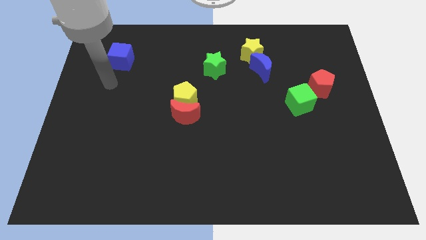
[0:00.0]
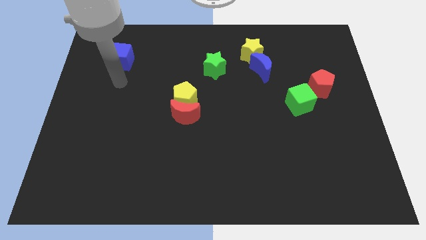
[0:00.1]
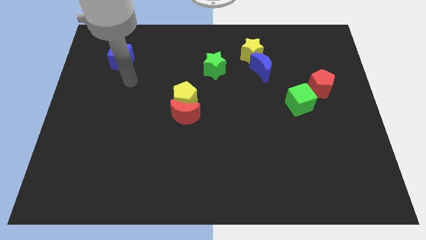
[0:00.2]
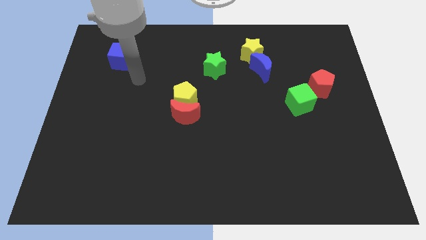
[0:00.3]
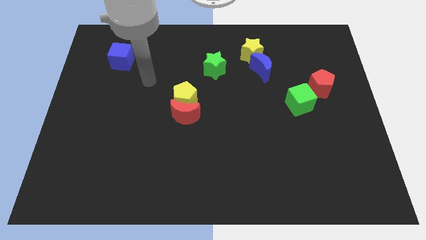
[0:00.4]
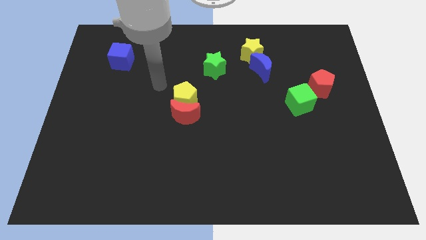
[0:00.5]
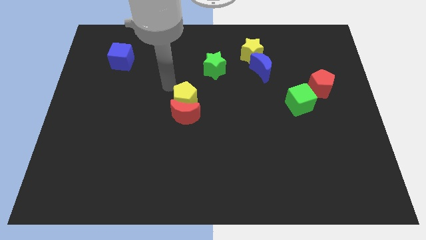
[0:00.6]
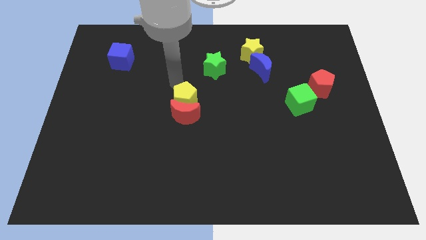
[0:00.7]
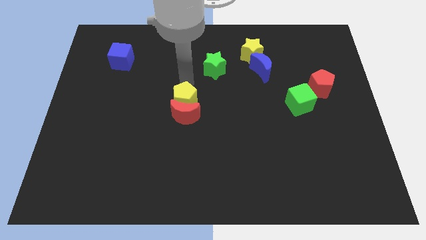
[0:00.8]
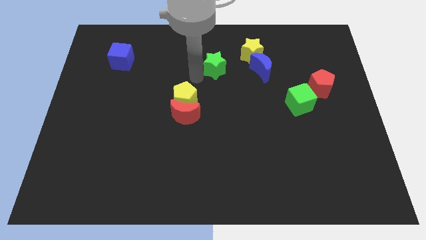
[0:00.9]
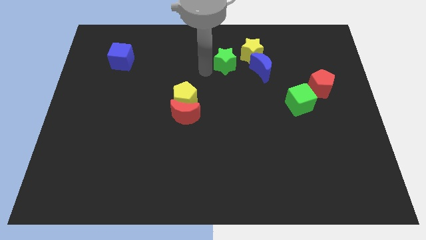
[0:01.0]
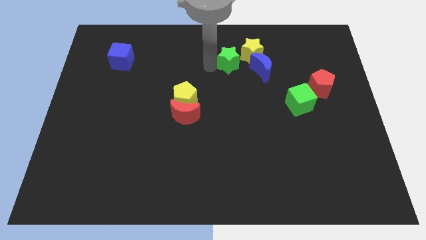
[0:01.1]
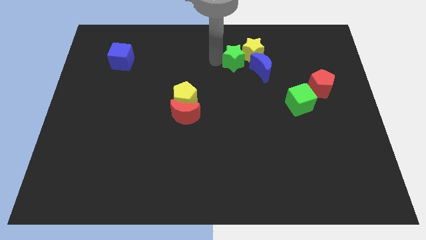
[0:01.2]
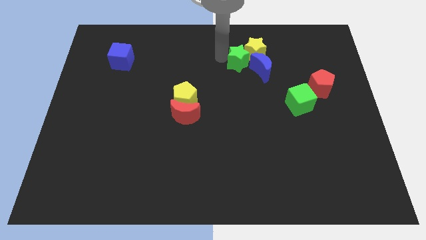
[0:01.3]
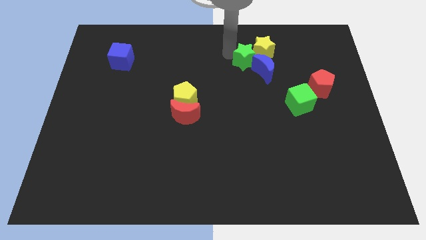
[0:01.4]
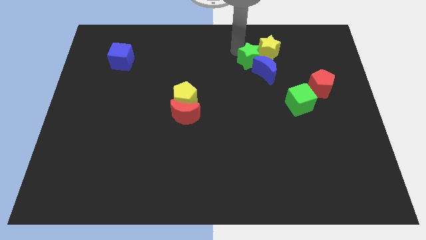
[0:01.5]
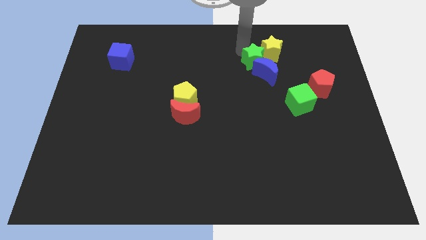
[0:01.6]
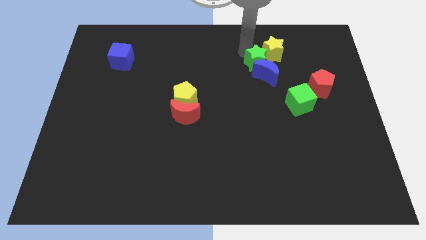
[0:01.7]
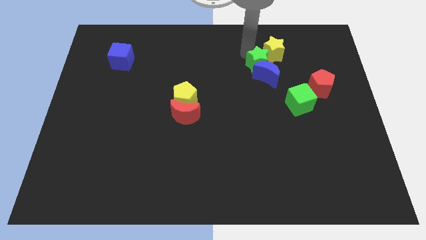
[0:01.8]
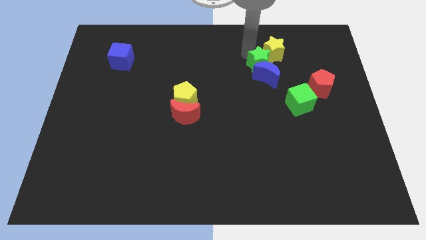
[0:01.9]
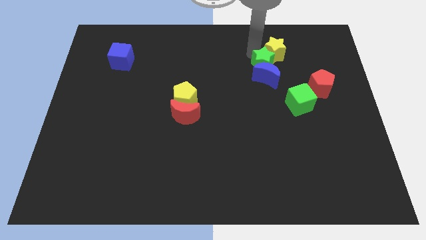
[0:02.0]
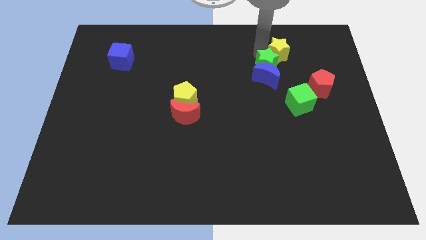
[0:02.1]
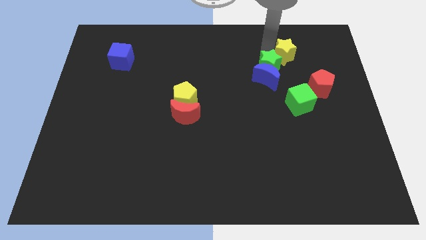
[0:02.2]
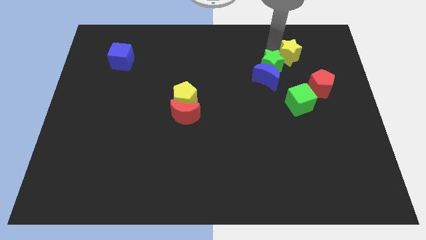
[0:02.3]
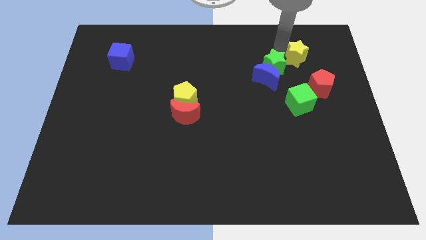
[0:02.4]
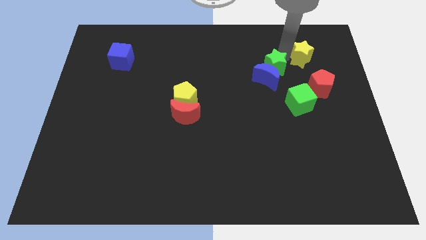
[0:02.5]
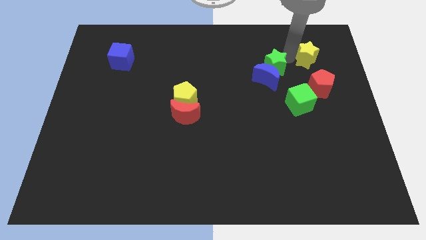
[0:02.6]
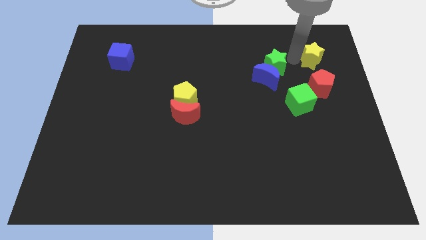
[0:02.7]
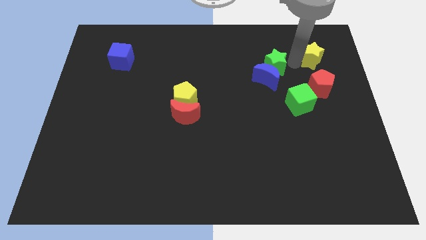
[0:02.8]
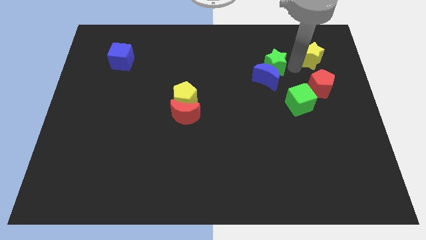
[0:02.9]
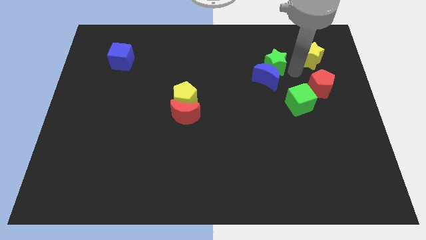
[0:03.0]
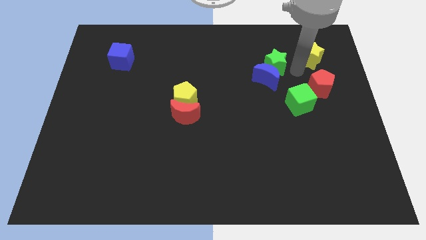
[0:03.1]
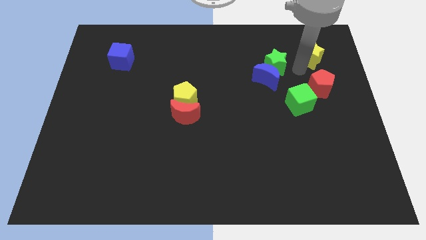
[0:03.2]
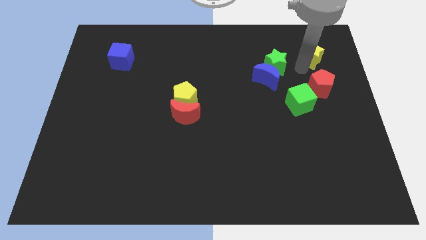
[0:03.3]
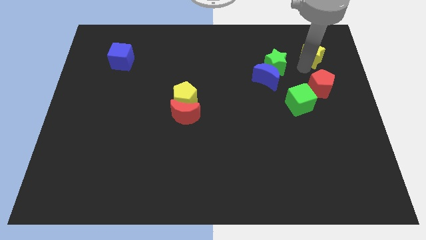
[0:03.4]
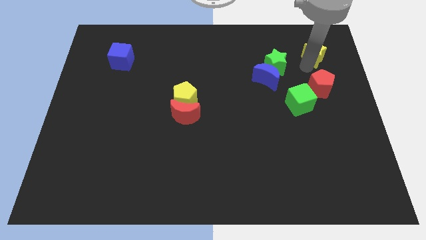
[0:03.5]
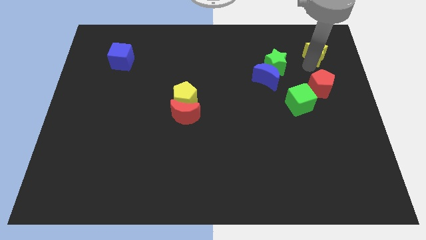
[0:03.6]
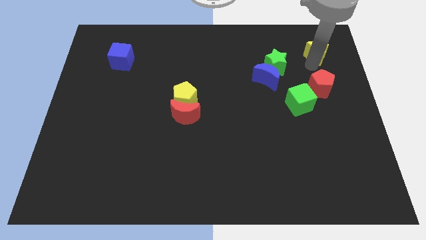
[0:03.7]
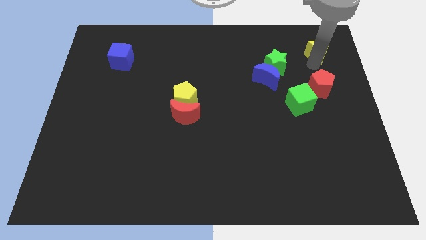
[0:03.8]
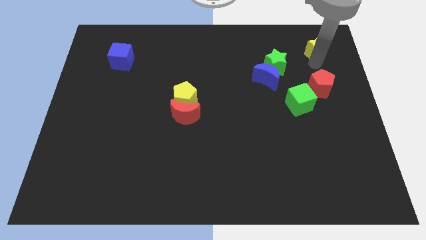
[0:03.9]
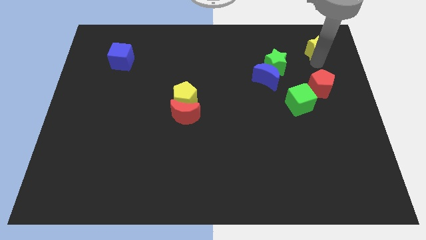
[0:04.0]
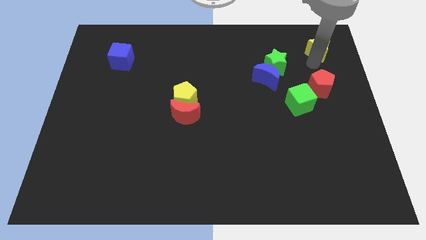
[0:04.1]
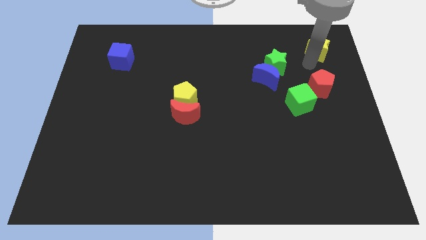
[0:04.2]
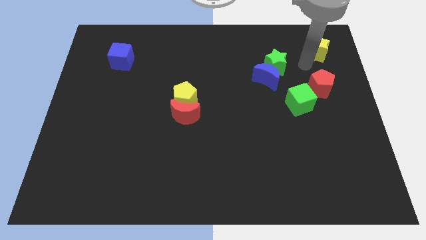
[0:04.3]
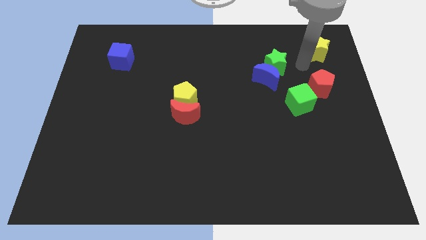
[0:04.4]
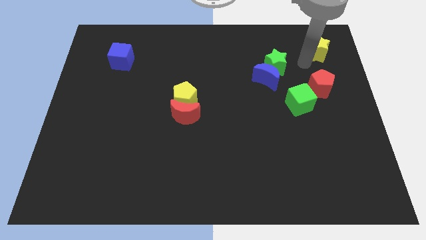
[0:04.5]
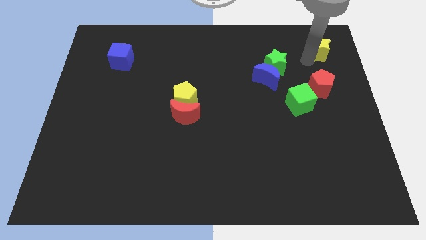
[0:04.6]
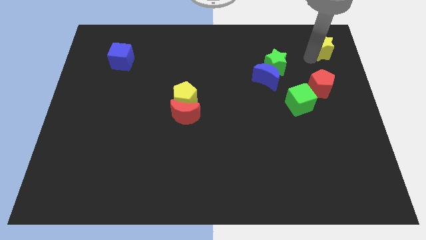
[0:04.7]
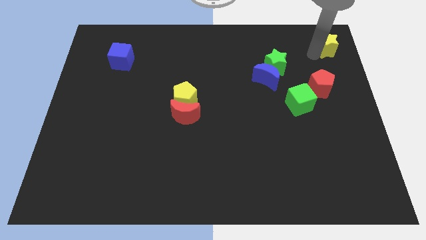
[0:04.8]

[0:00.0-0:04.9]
push the yellow star to the upper right corner

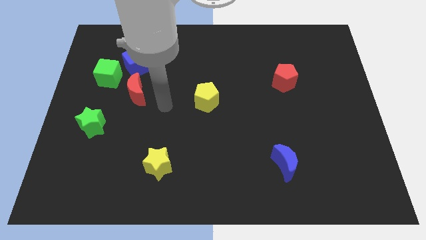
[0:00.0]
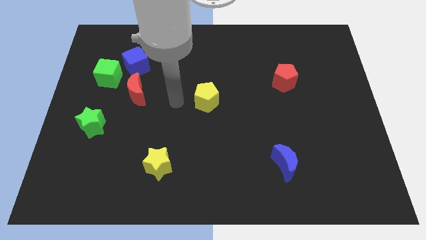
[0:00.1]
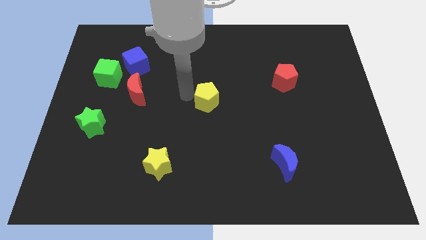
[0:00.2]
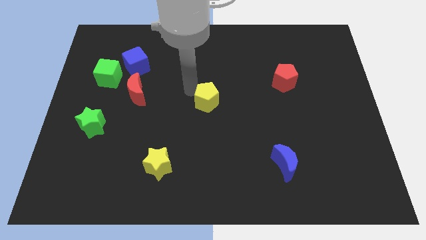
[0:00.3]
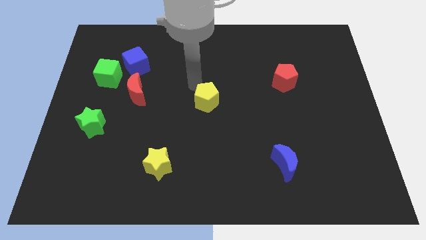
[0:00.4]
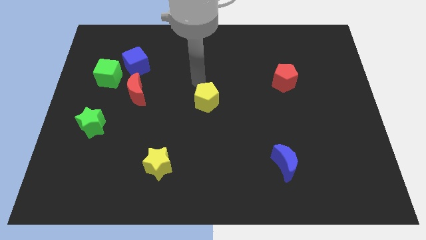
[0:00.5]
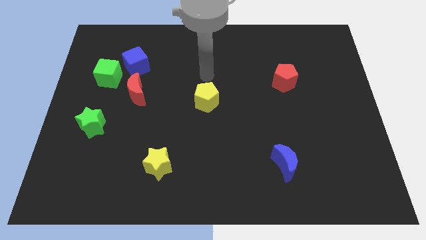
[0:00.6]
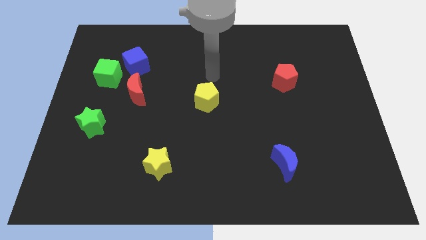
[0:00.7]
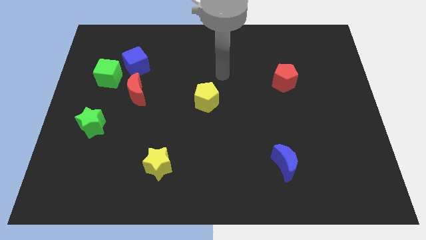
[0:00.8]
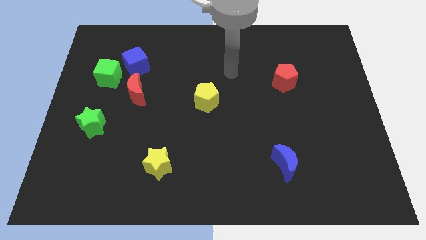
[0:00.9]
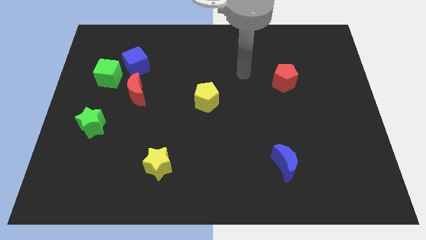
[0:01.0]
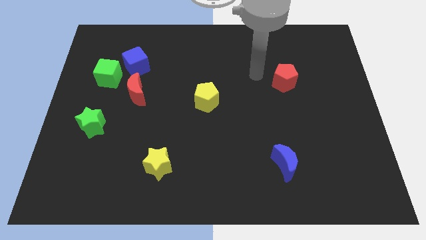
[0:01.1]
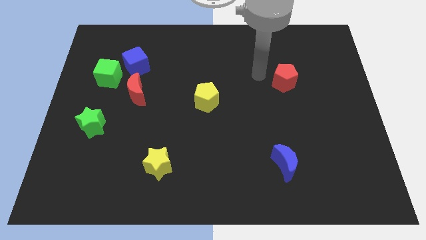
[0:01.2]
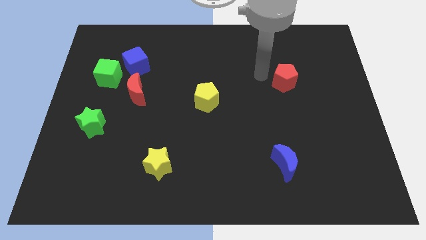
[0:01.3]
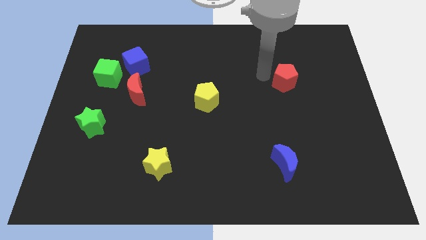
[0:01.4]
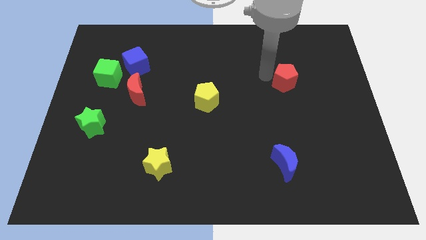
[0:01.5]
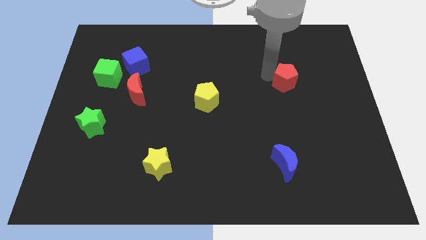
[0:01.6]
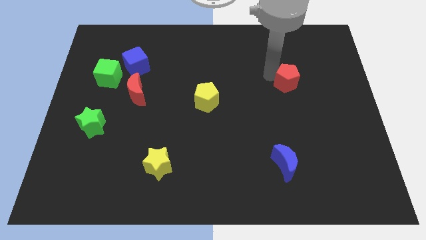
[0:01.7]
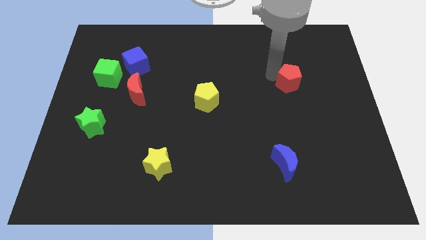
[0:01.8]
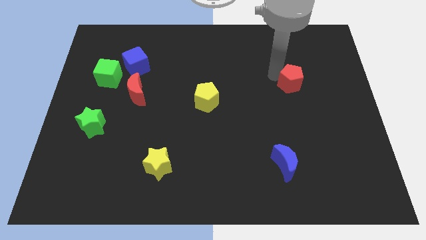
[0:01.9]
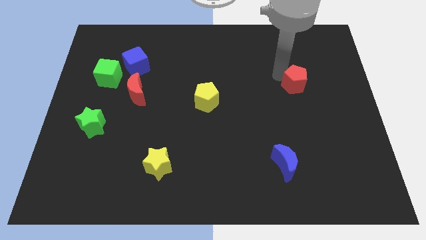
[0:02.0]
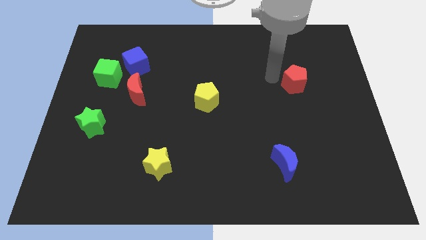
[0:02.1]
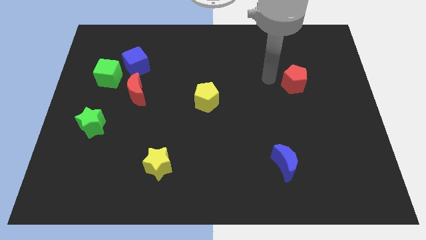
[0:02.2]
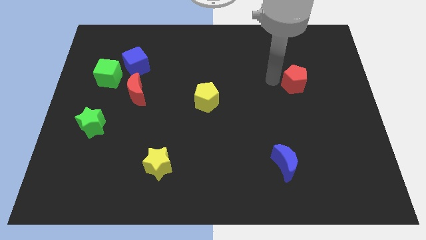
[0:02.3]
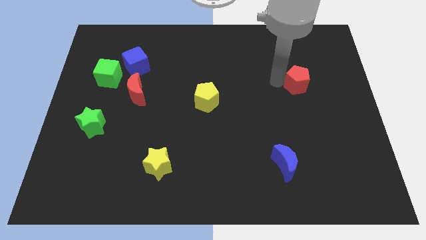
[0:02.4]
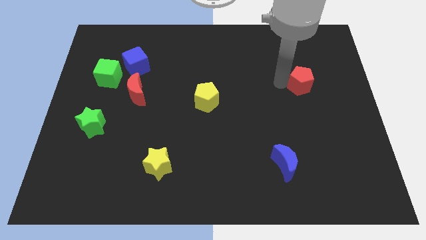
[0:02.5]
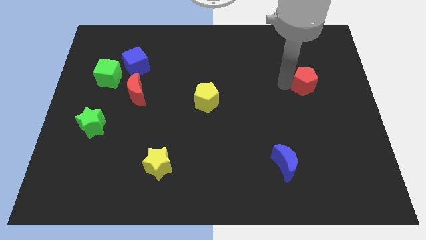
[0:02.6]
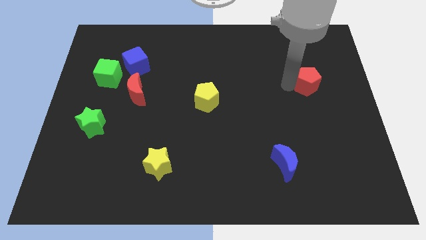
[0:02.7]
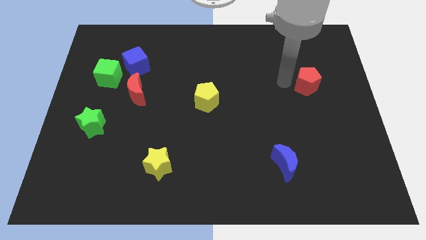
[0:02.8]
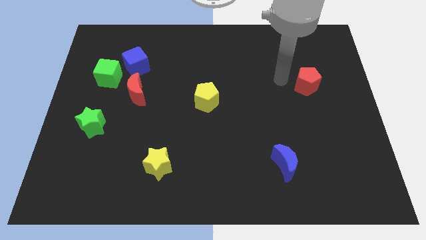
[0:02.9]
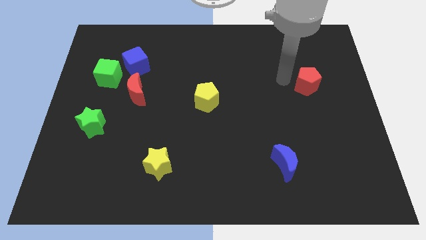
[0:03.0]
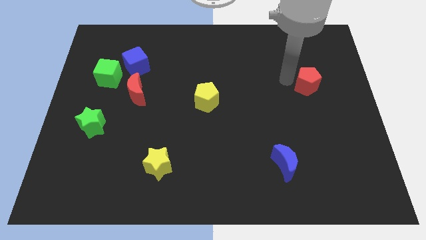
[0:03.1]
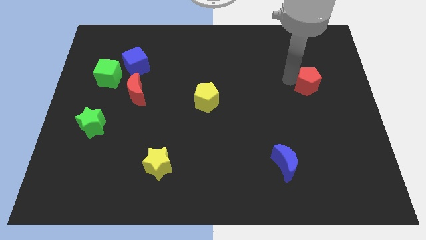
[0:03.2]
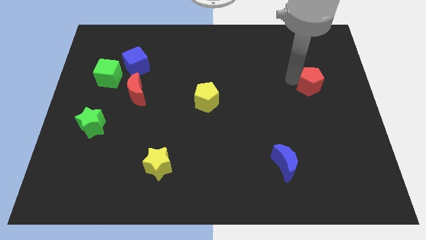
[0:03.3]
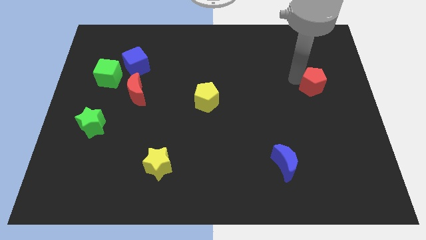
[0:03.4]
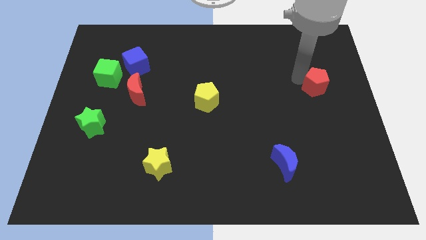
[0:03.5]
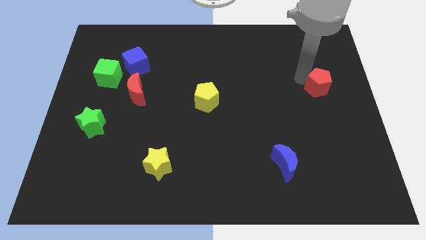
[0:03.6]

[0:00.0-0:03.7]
slide the red pentagon to the right side of the board
